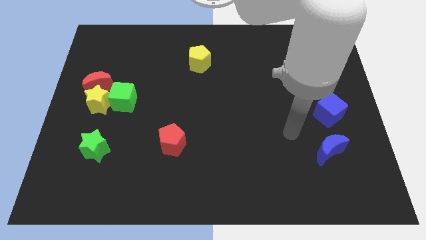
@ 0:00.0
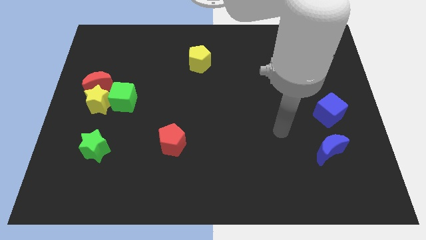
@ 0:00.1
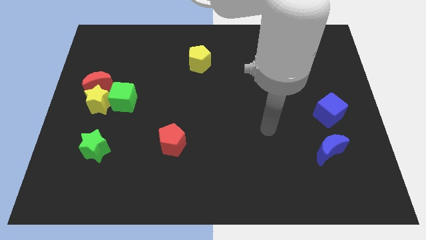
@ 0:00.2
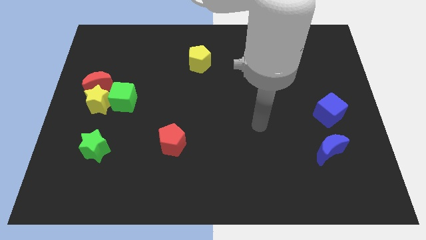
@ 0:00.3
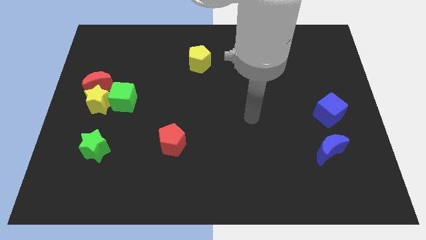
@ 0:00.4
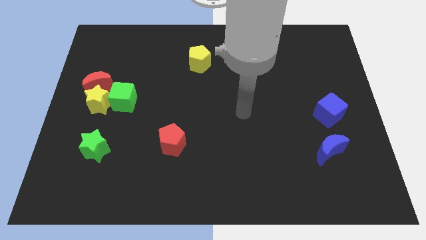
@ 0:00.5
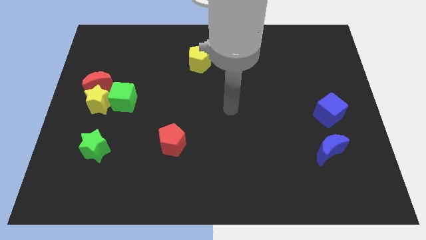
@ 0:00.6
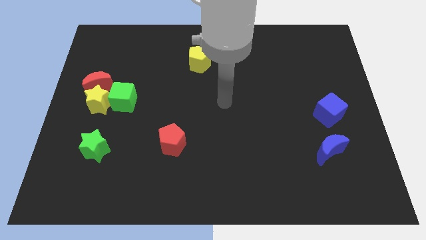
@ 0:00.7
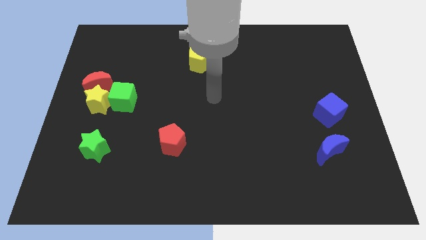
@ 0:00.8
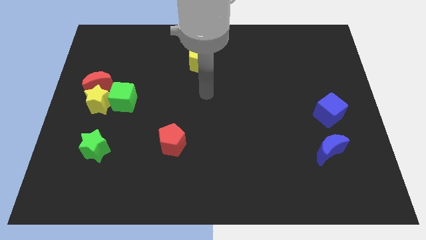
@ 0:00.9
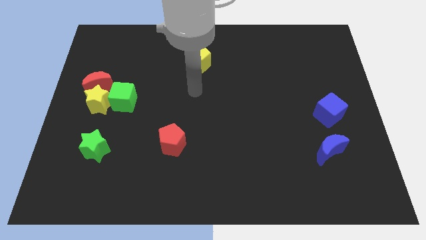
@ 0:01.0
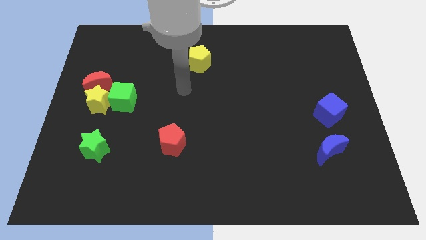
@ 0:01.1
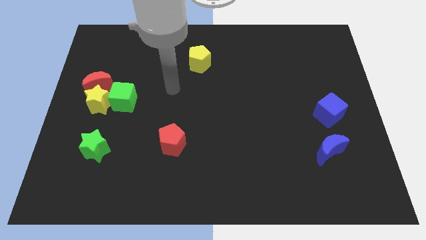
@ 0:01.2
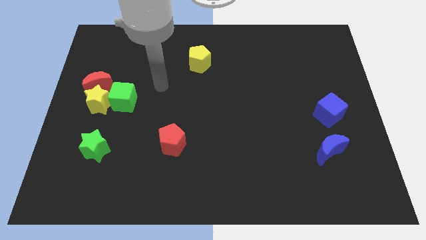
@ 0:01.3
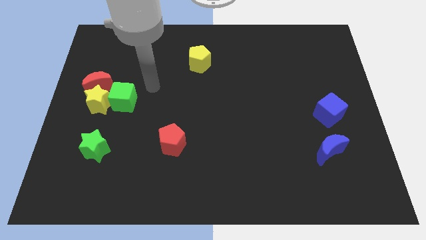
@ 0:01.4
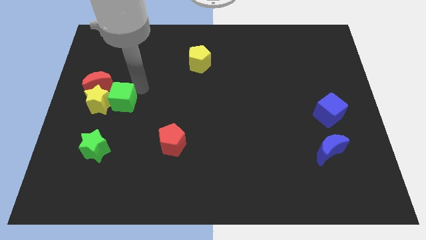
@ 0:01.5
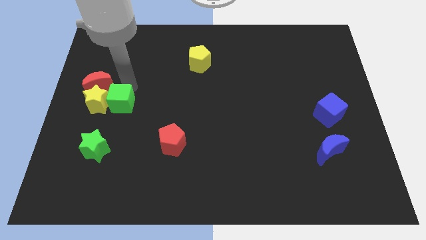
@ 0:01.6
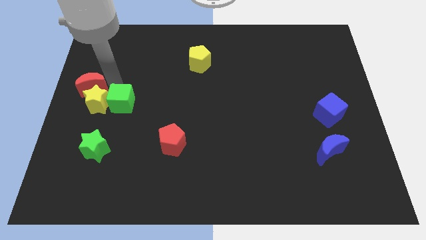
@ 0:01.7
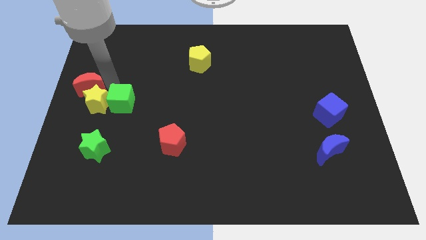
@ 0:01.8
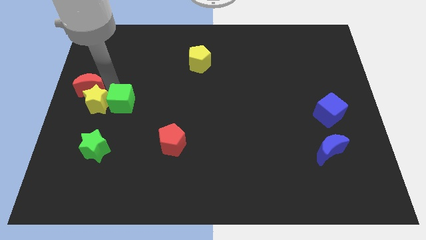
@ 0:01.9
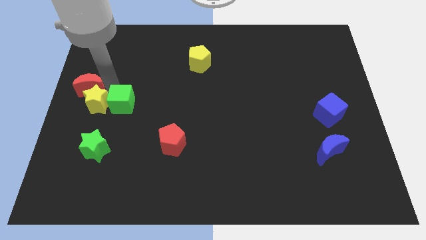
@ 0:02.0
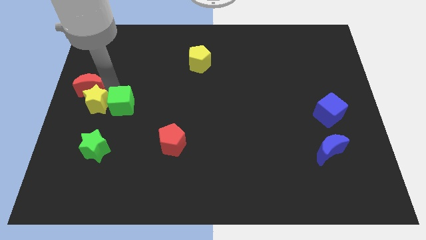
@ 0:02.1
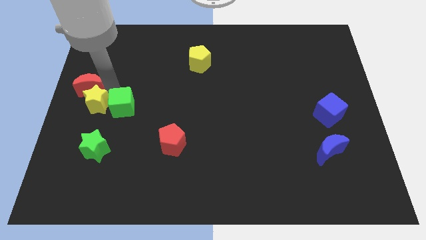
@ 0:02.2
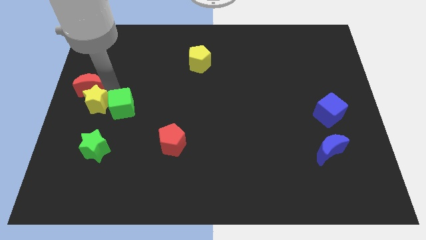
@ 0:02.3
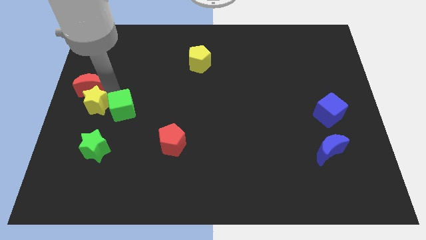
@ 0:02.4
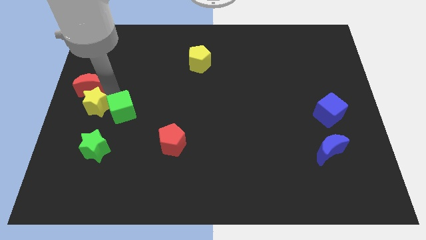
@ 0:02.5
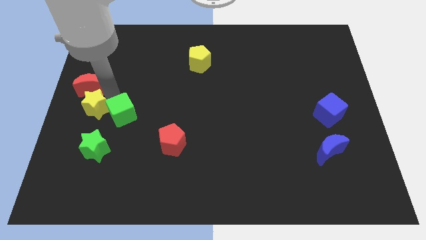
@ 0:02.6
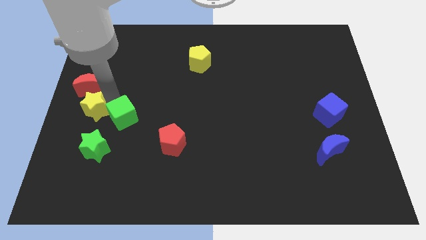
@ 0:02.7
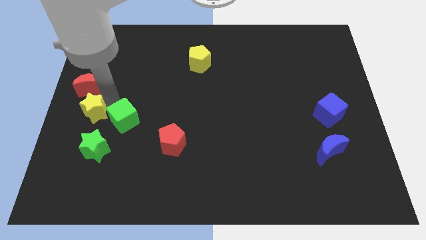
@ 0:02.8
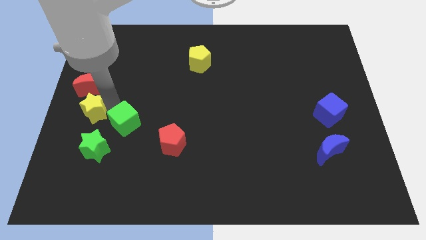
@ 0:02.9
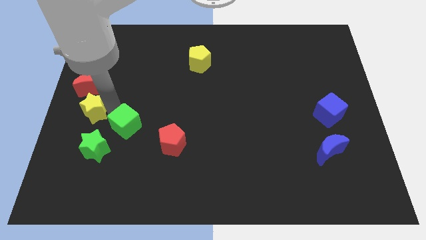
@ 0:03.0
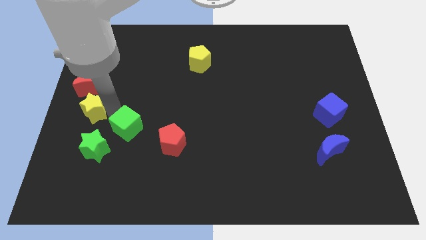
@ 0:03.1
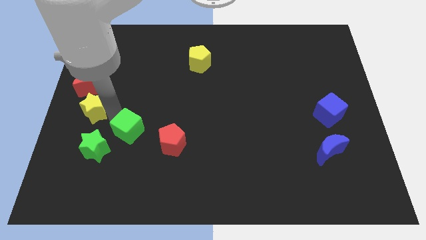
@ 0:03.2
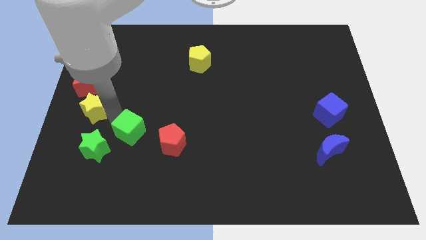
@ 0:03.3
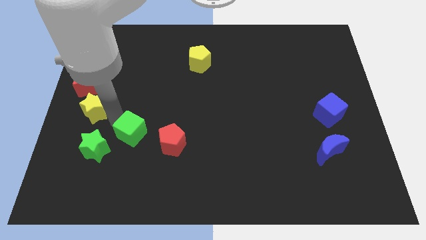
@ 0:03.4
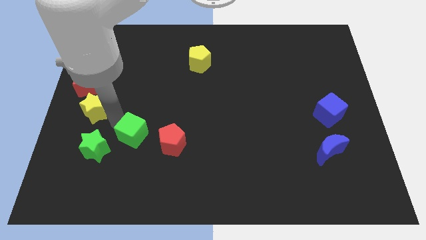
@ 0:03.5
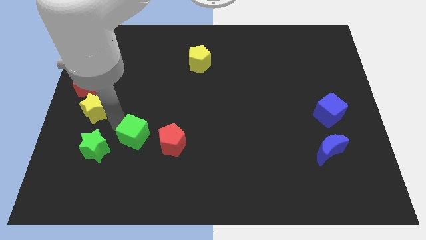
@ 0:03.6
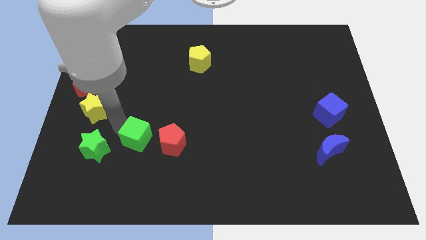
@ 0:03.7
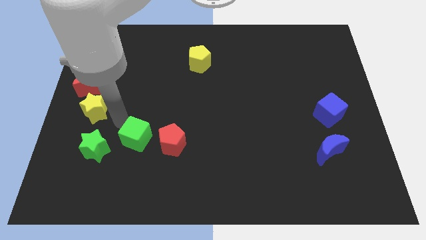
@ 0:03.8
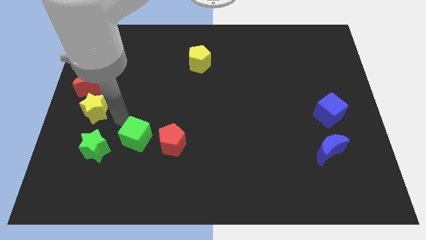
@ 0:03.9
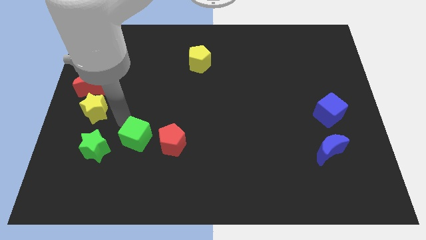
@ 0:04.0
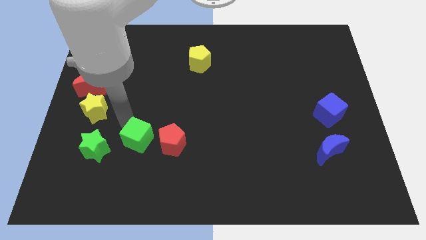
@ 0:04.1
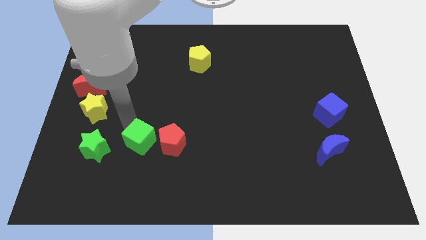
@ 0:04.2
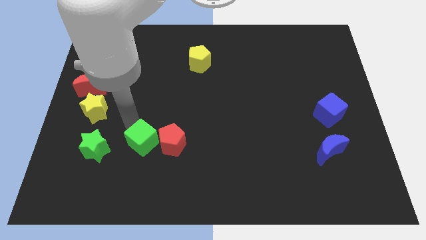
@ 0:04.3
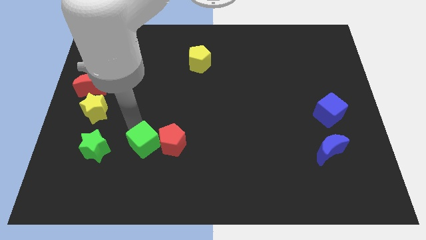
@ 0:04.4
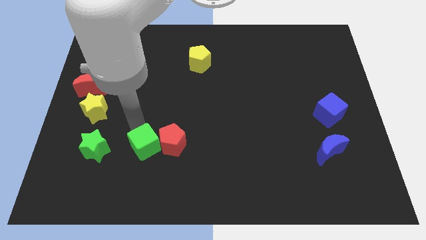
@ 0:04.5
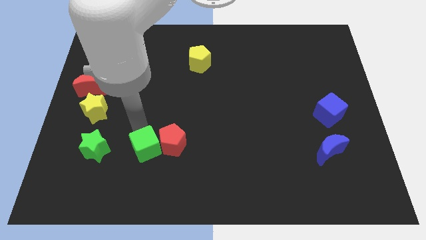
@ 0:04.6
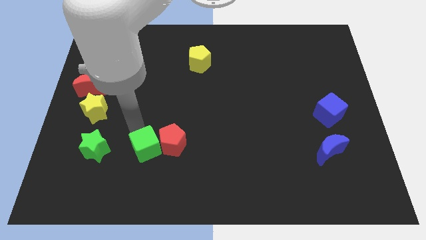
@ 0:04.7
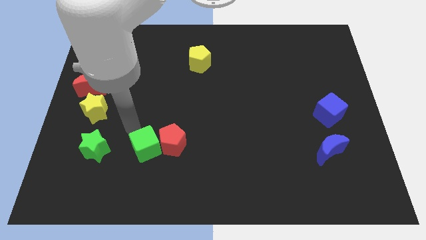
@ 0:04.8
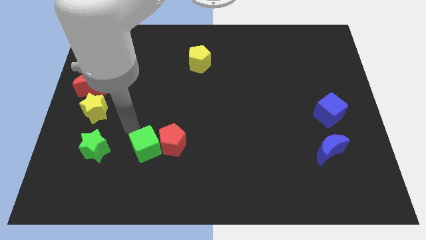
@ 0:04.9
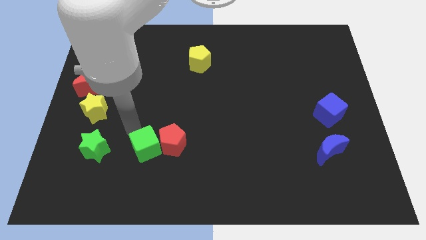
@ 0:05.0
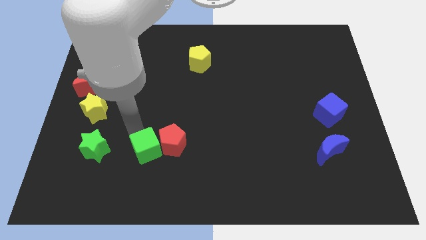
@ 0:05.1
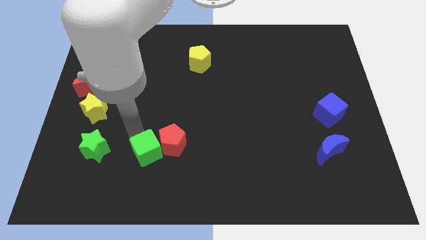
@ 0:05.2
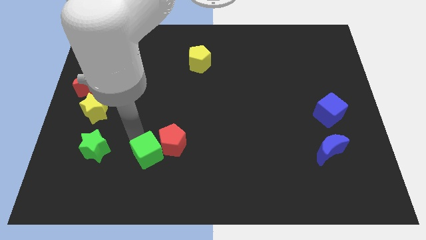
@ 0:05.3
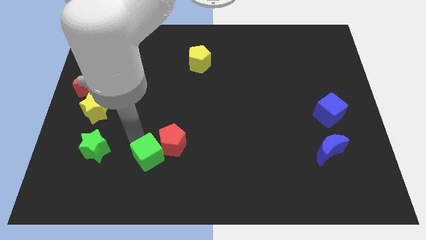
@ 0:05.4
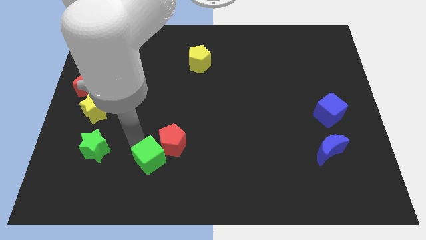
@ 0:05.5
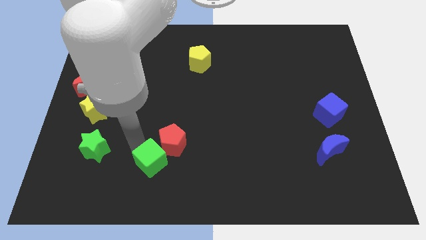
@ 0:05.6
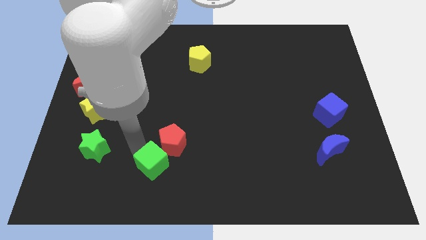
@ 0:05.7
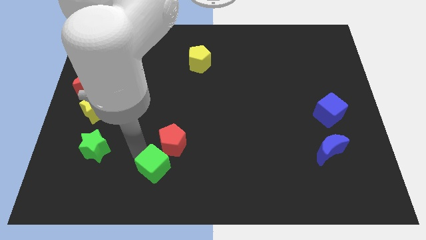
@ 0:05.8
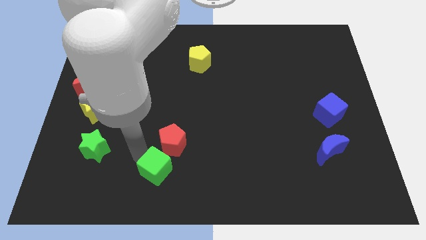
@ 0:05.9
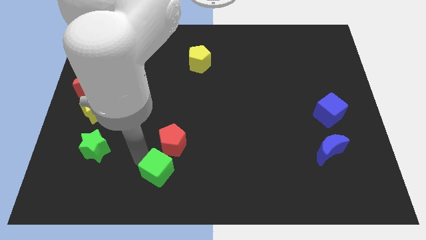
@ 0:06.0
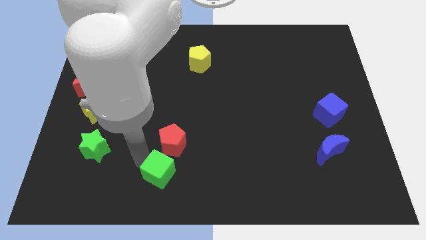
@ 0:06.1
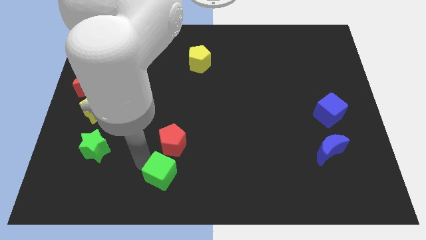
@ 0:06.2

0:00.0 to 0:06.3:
push the green cube to the bottom side
